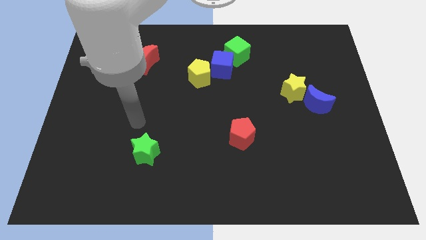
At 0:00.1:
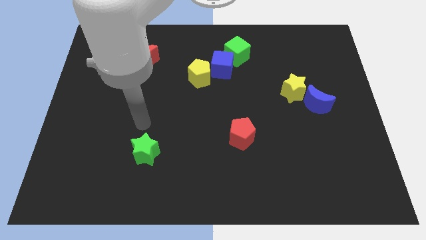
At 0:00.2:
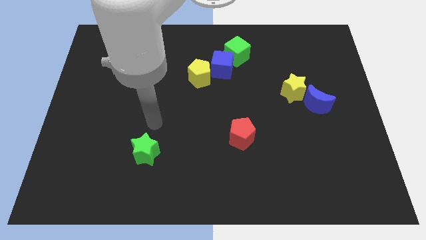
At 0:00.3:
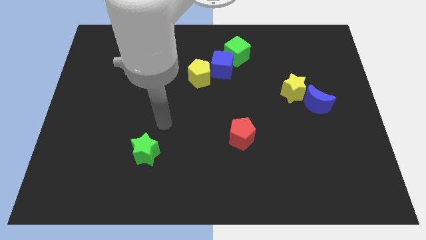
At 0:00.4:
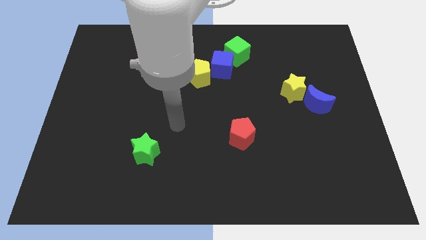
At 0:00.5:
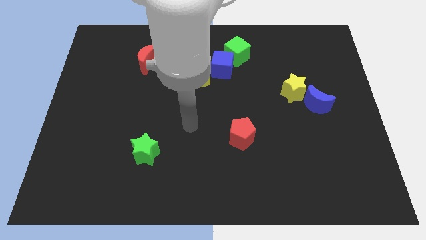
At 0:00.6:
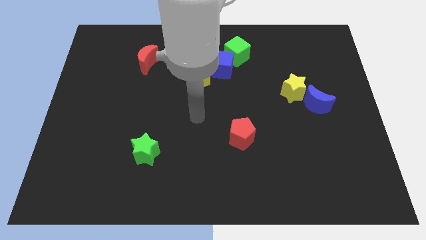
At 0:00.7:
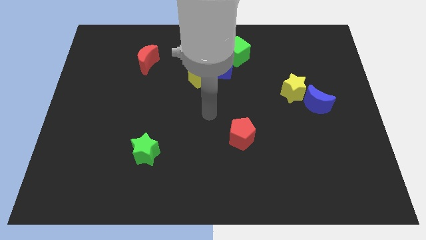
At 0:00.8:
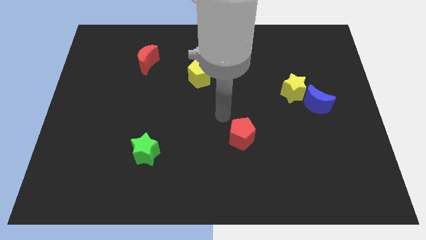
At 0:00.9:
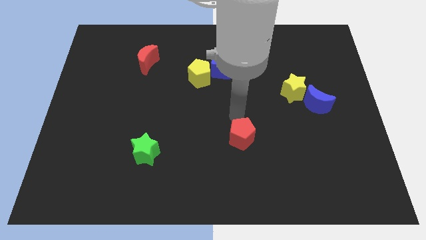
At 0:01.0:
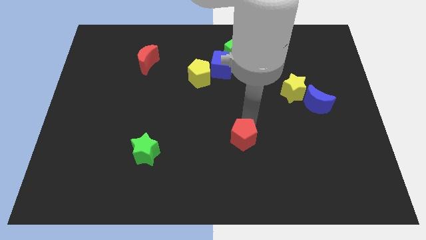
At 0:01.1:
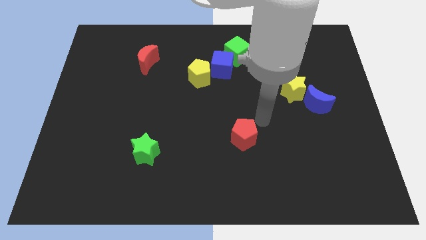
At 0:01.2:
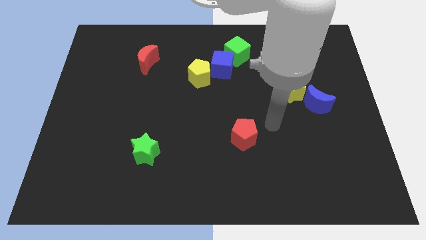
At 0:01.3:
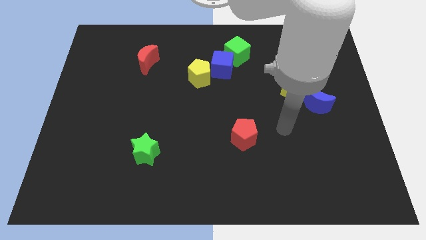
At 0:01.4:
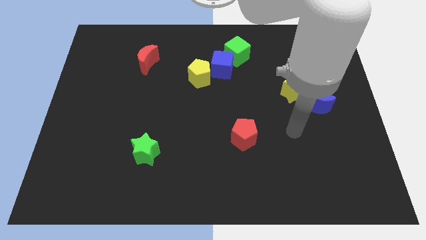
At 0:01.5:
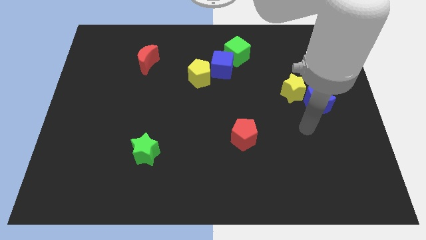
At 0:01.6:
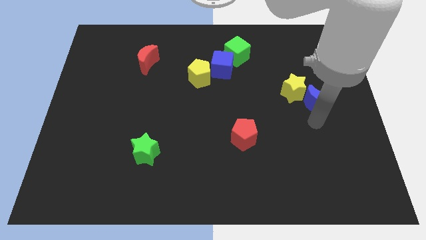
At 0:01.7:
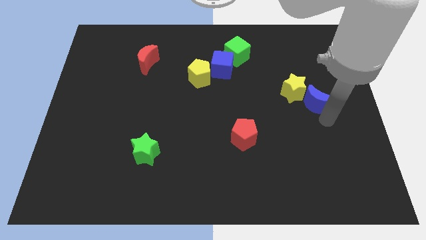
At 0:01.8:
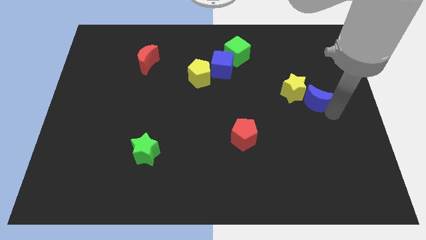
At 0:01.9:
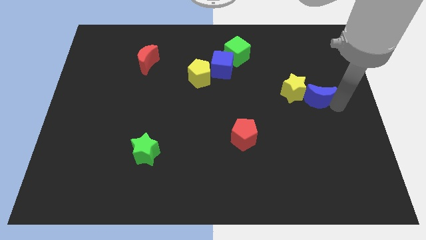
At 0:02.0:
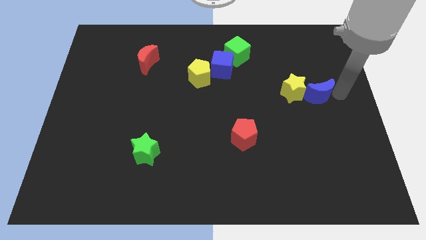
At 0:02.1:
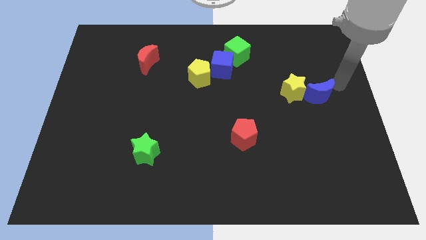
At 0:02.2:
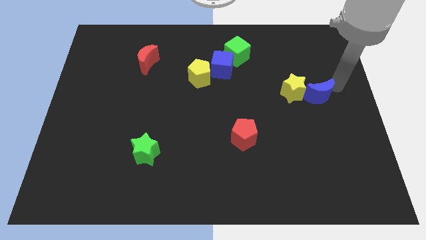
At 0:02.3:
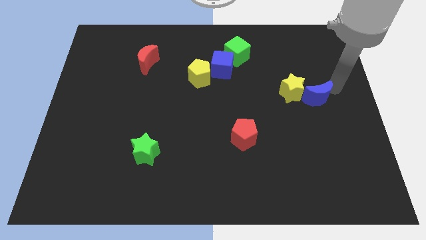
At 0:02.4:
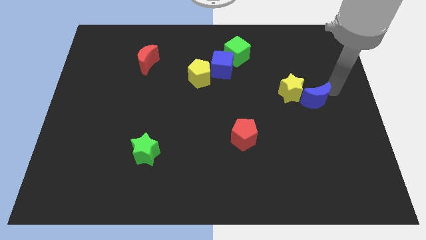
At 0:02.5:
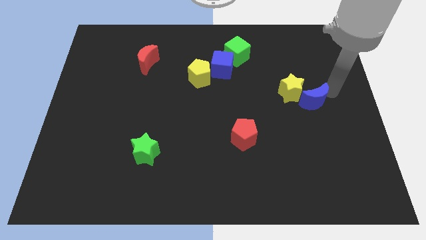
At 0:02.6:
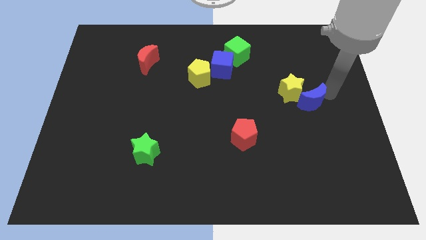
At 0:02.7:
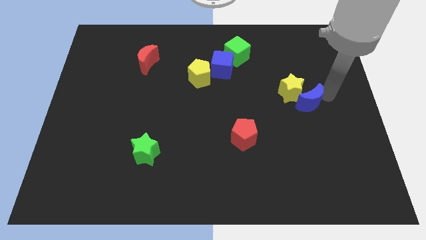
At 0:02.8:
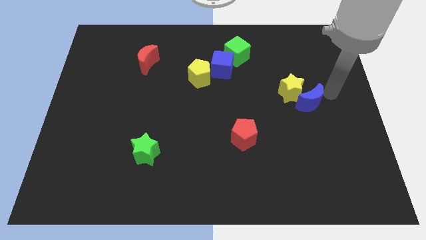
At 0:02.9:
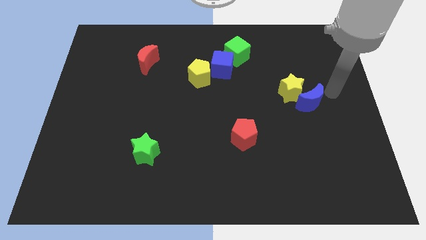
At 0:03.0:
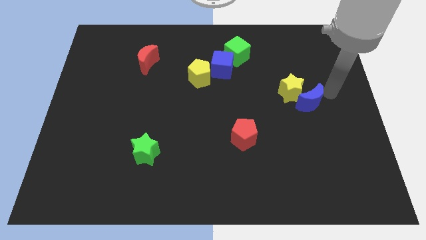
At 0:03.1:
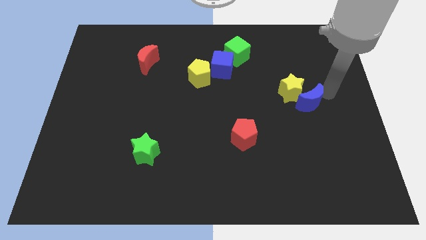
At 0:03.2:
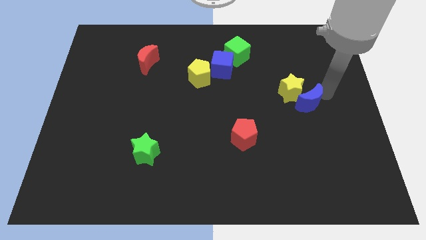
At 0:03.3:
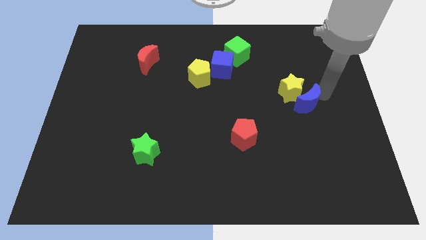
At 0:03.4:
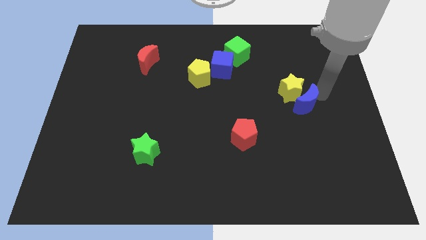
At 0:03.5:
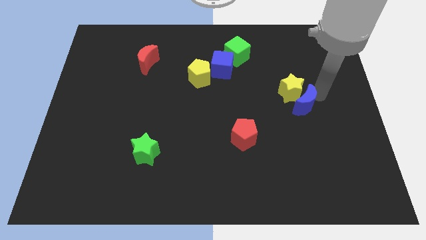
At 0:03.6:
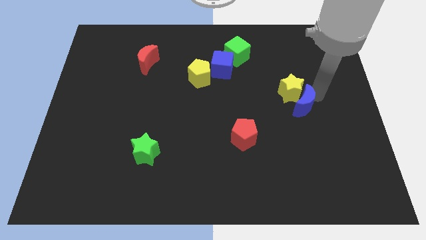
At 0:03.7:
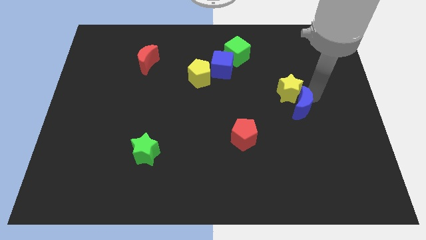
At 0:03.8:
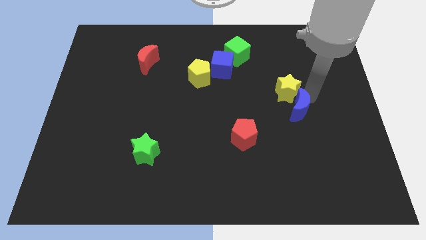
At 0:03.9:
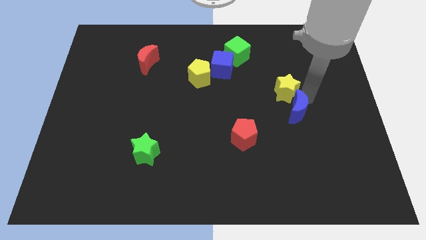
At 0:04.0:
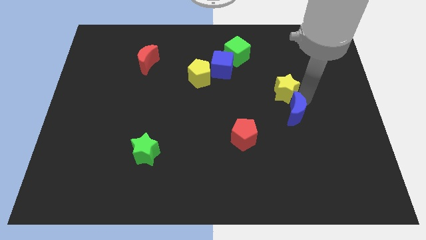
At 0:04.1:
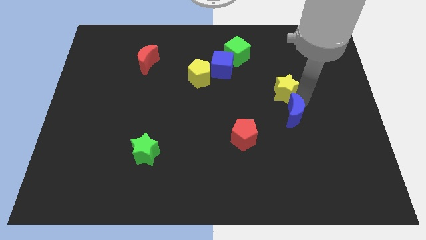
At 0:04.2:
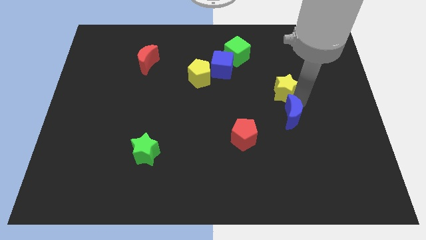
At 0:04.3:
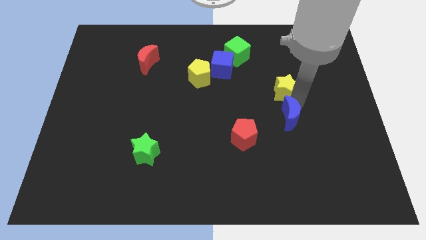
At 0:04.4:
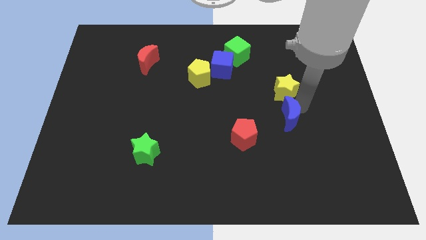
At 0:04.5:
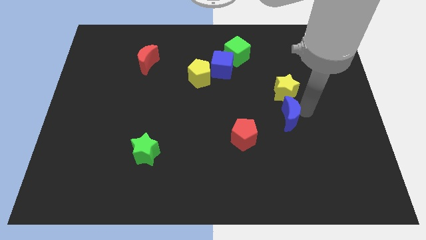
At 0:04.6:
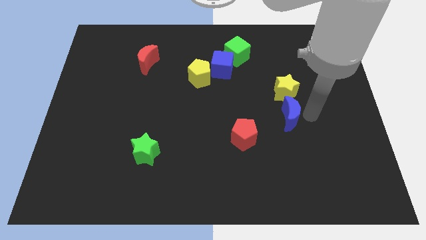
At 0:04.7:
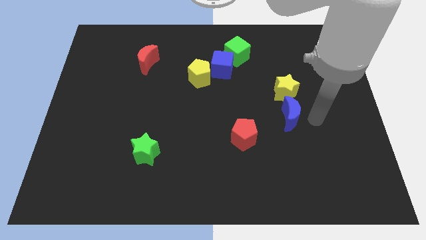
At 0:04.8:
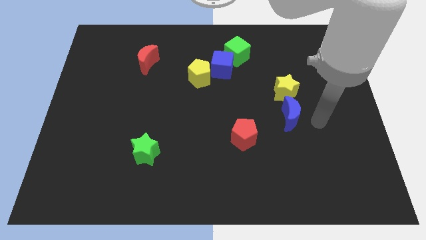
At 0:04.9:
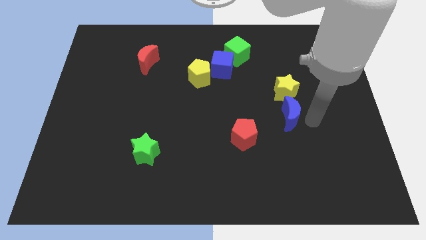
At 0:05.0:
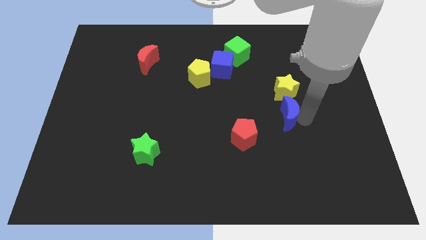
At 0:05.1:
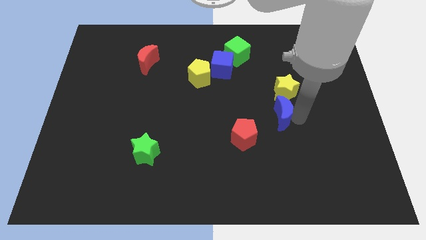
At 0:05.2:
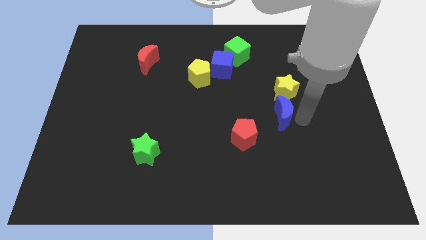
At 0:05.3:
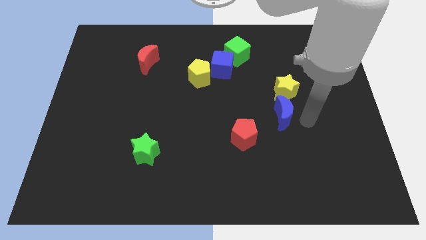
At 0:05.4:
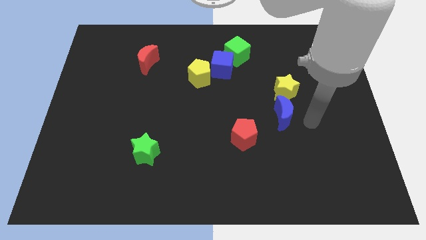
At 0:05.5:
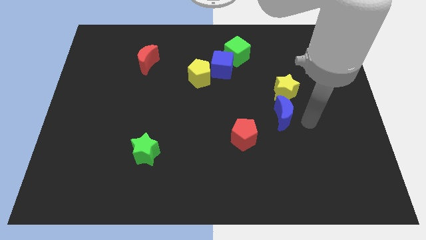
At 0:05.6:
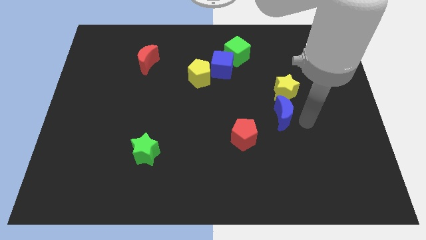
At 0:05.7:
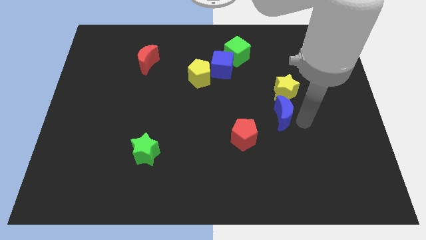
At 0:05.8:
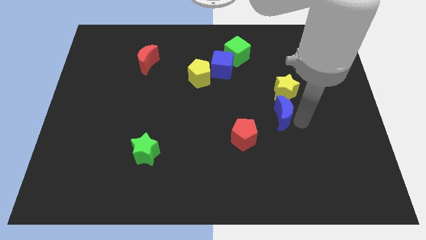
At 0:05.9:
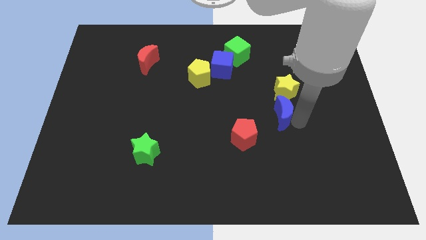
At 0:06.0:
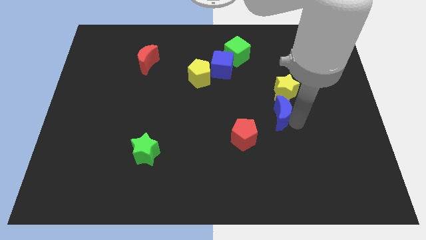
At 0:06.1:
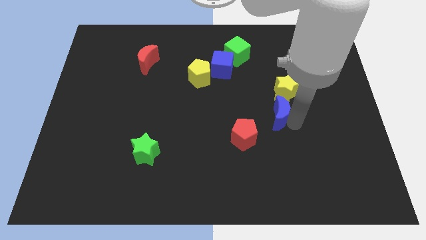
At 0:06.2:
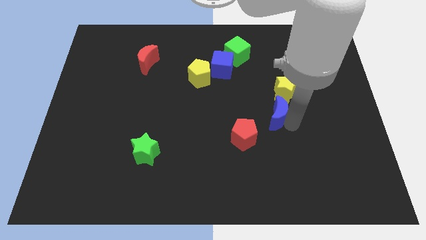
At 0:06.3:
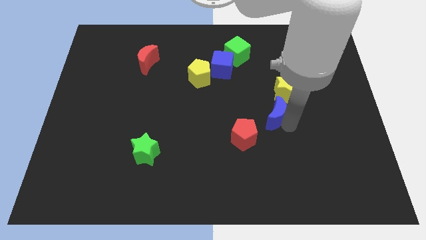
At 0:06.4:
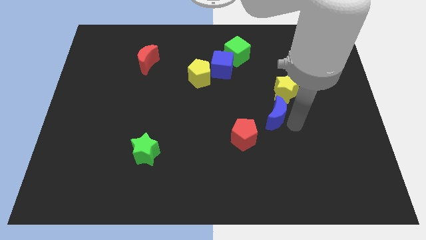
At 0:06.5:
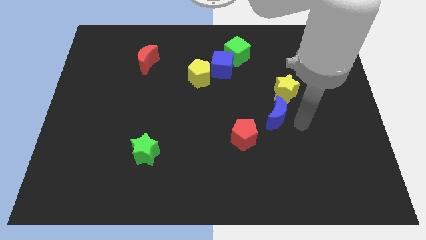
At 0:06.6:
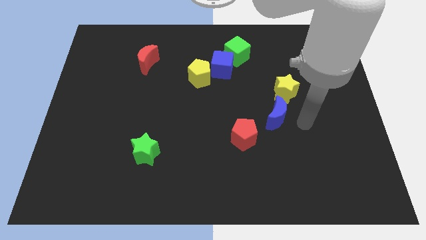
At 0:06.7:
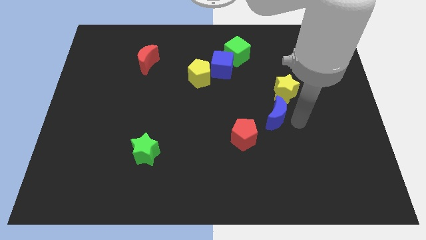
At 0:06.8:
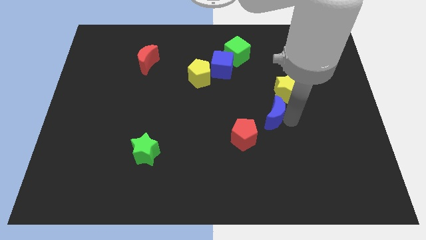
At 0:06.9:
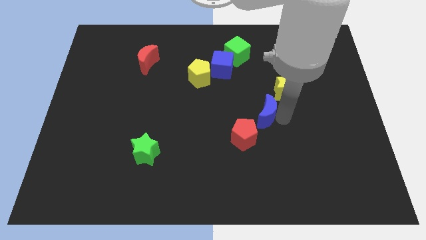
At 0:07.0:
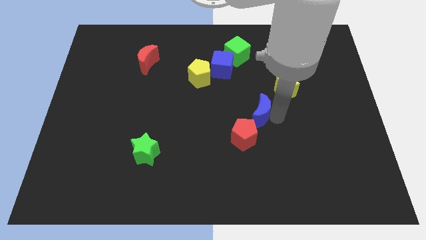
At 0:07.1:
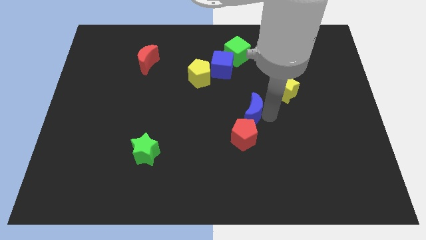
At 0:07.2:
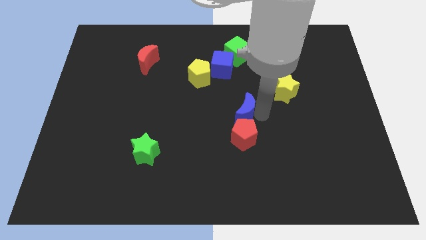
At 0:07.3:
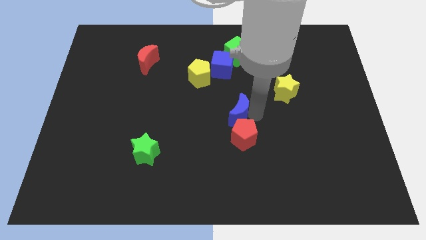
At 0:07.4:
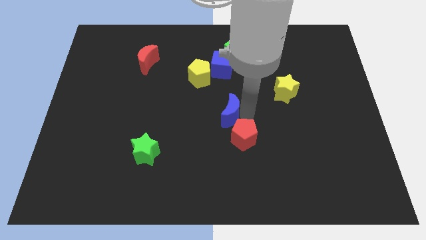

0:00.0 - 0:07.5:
push the blue moon to the left

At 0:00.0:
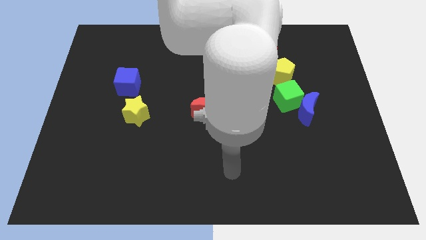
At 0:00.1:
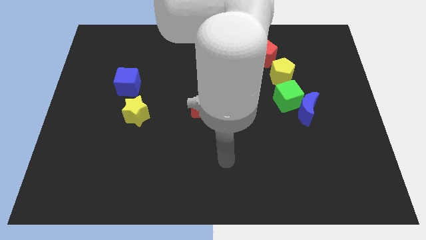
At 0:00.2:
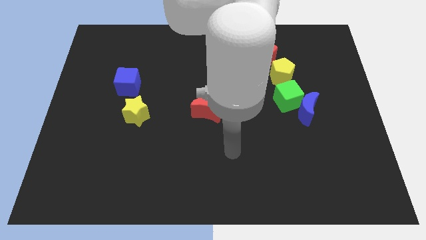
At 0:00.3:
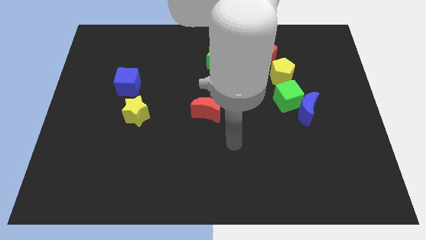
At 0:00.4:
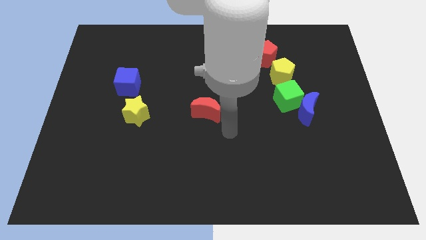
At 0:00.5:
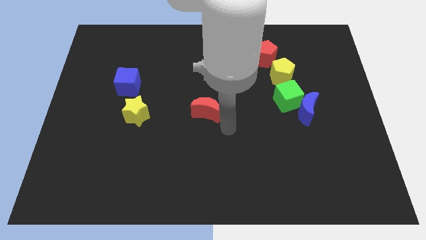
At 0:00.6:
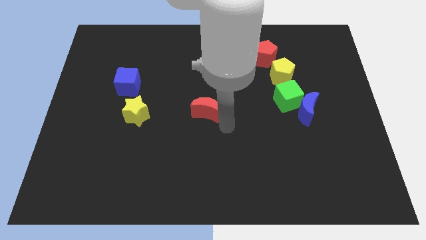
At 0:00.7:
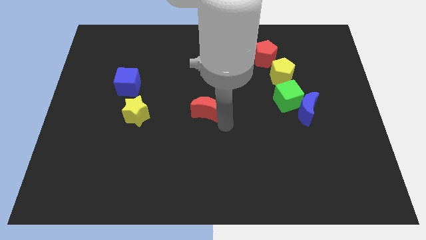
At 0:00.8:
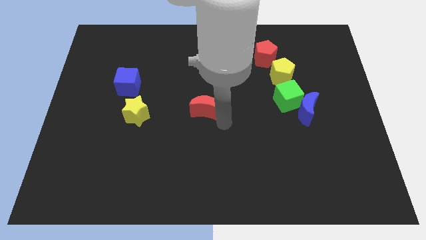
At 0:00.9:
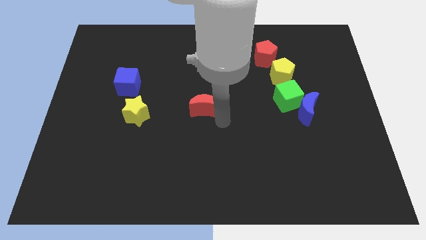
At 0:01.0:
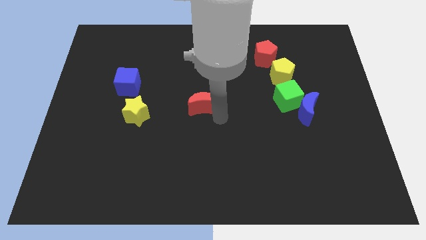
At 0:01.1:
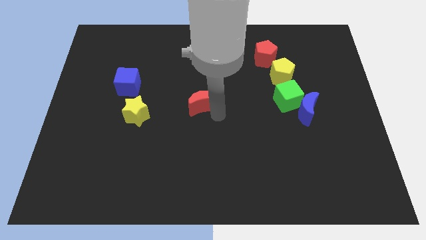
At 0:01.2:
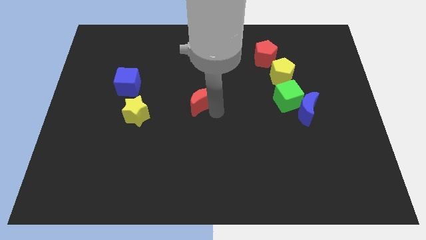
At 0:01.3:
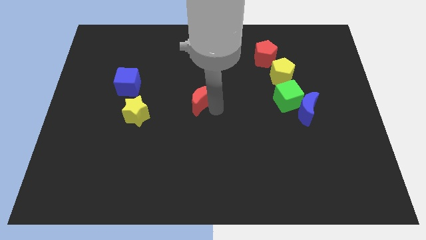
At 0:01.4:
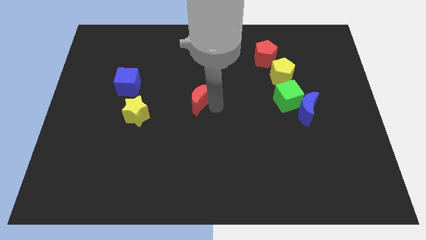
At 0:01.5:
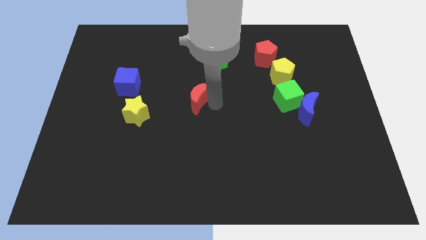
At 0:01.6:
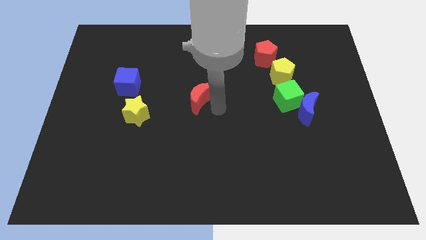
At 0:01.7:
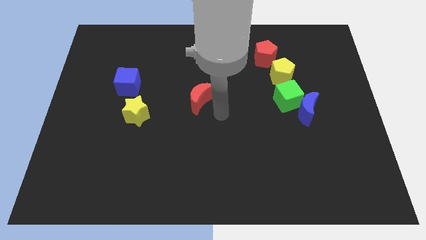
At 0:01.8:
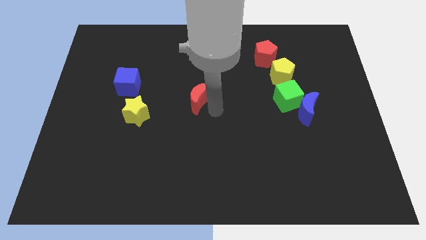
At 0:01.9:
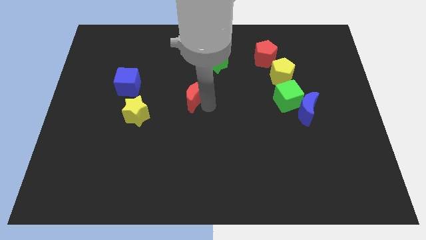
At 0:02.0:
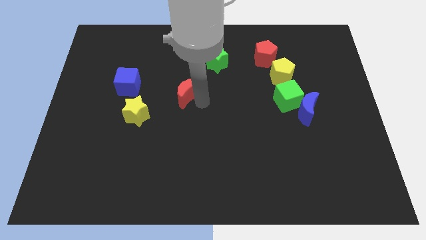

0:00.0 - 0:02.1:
slide the red moon up and to the left diagonally a little
